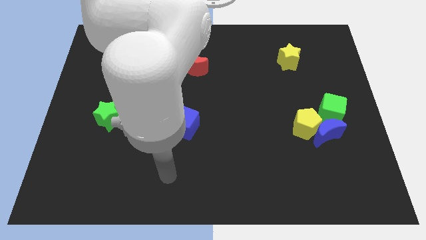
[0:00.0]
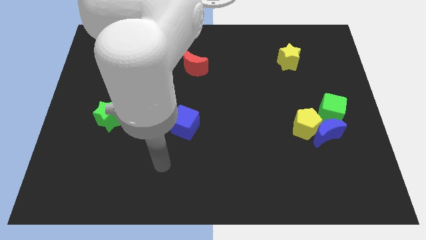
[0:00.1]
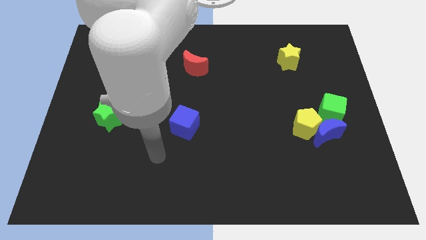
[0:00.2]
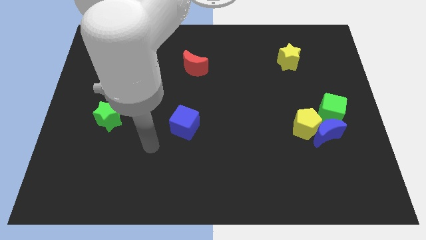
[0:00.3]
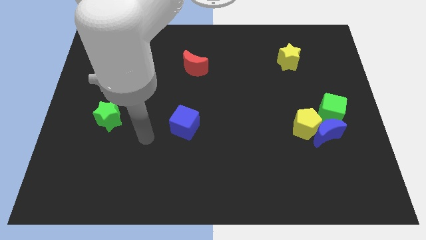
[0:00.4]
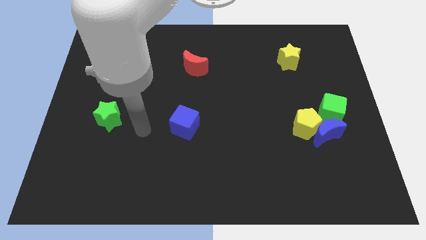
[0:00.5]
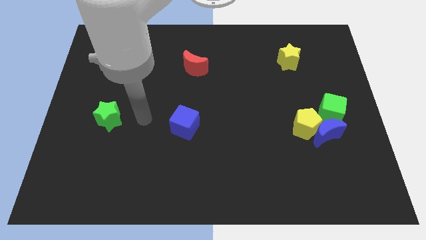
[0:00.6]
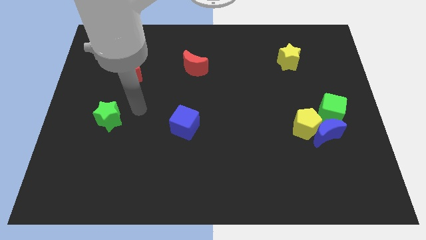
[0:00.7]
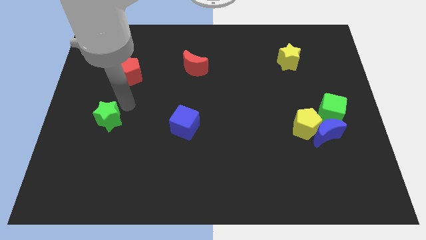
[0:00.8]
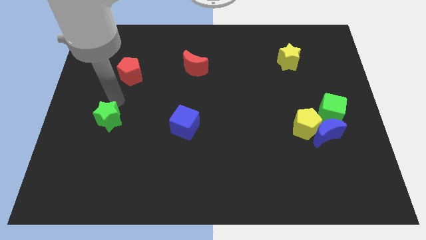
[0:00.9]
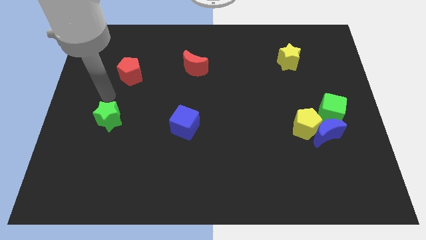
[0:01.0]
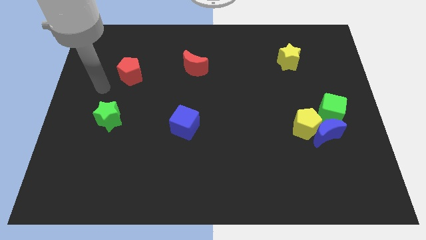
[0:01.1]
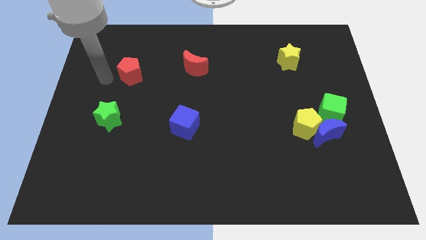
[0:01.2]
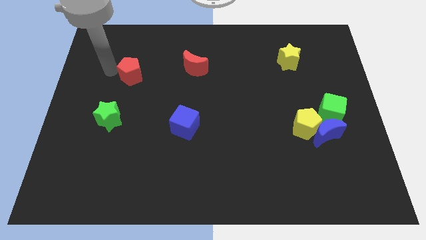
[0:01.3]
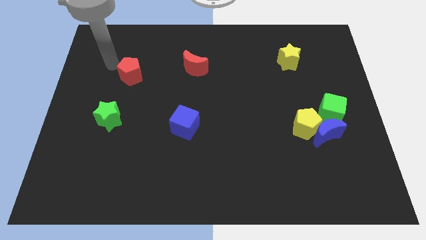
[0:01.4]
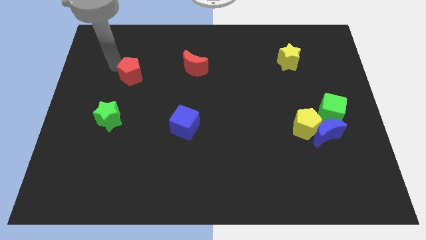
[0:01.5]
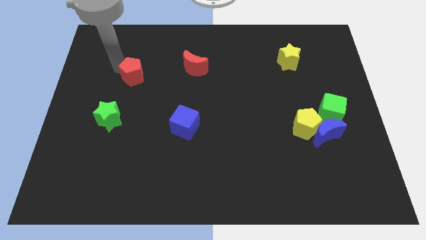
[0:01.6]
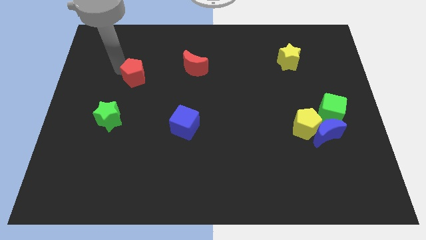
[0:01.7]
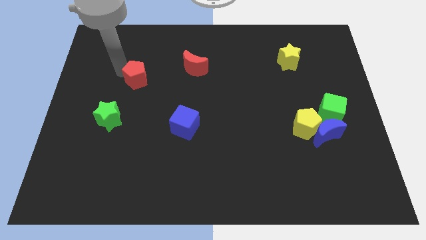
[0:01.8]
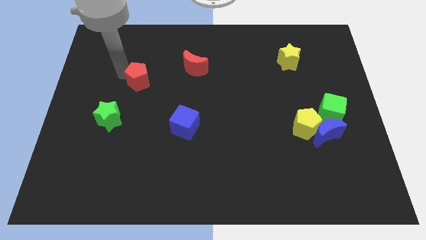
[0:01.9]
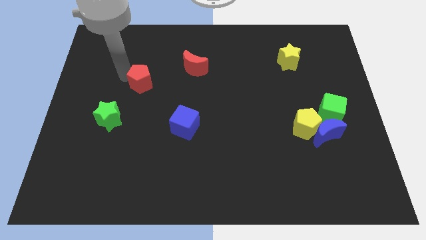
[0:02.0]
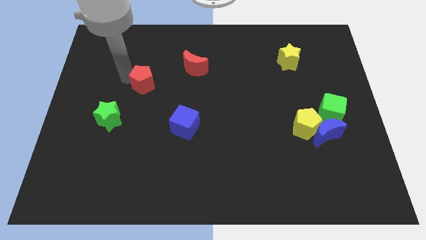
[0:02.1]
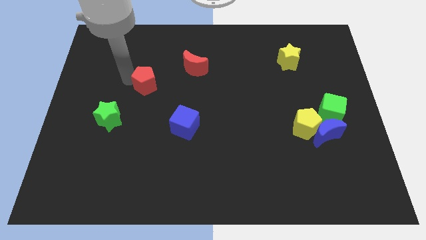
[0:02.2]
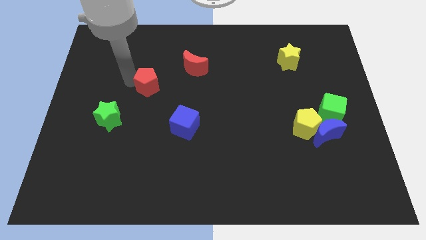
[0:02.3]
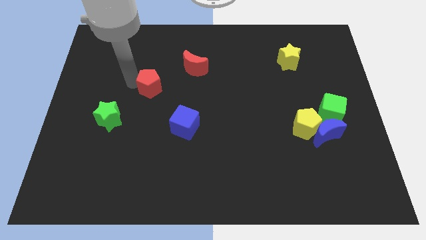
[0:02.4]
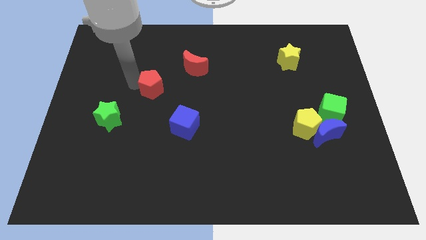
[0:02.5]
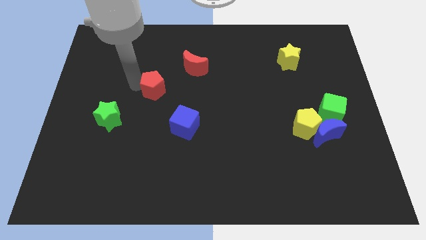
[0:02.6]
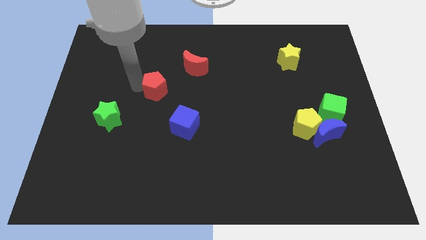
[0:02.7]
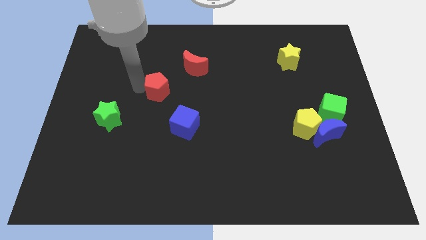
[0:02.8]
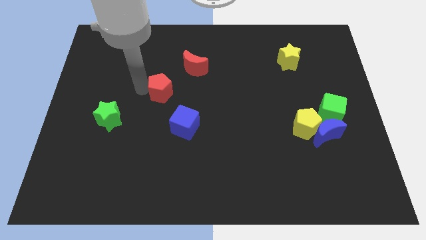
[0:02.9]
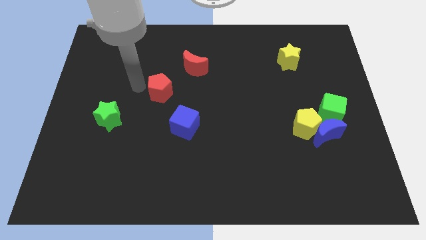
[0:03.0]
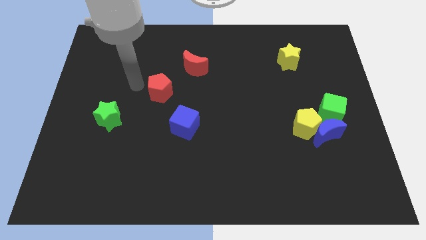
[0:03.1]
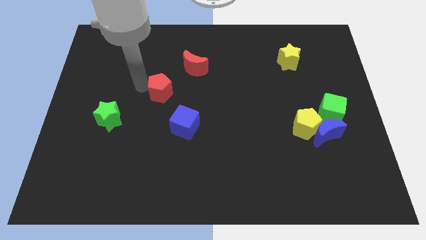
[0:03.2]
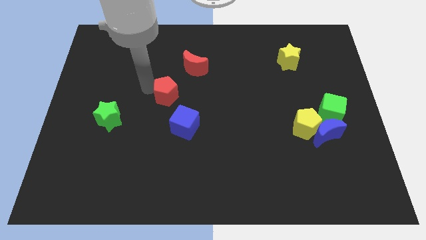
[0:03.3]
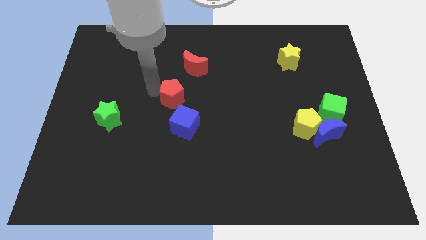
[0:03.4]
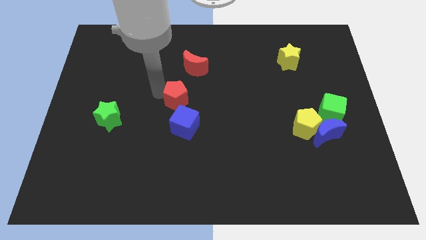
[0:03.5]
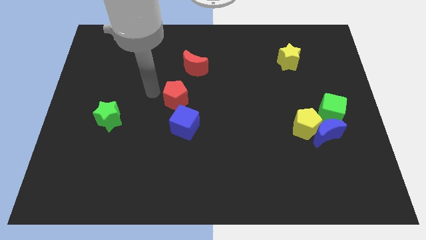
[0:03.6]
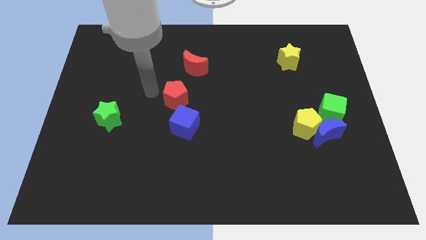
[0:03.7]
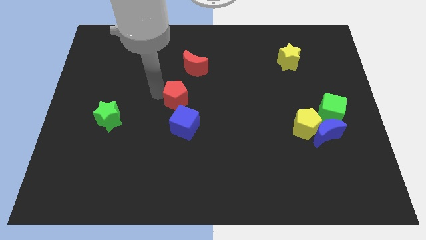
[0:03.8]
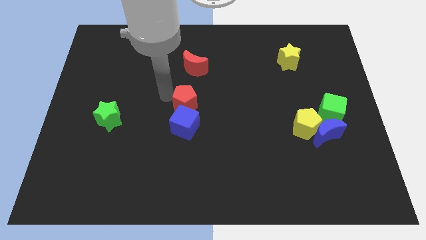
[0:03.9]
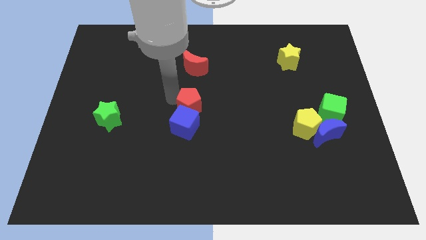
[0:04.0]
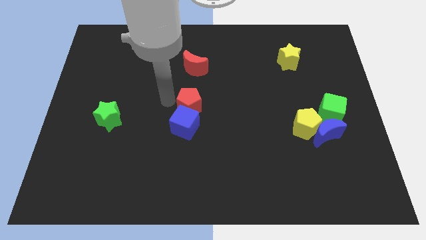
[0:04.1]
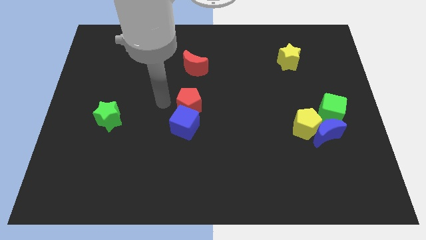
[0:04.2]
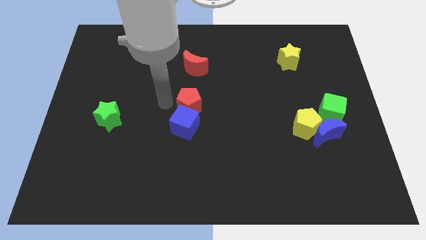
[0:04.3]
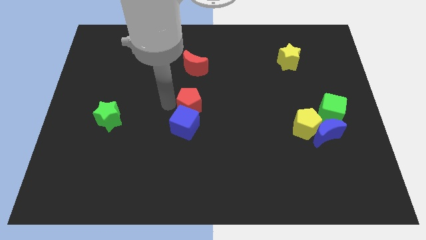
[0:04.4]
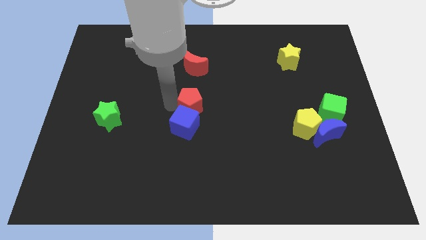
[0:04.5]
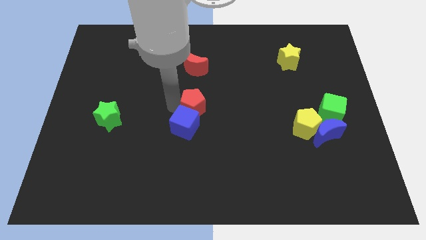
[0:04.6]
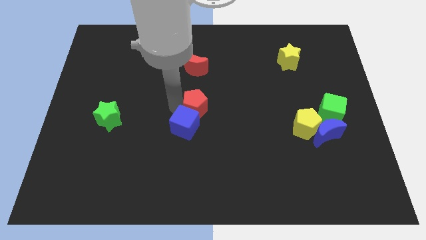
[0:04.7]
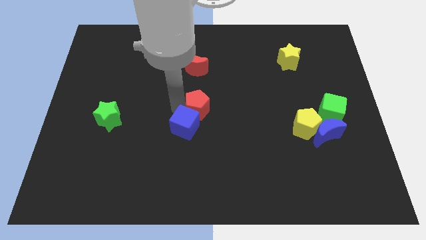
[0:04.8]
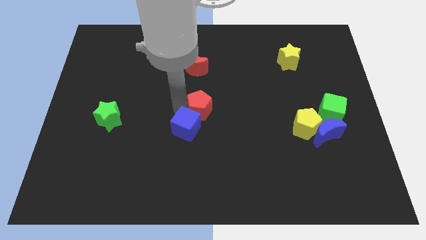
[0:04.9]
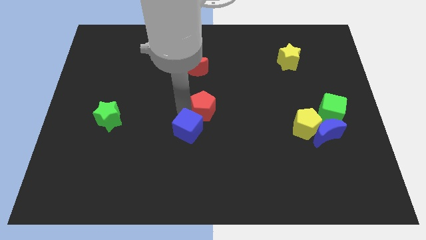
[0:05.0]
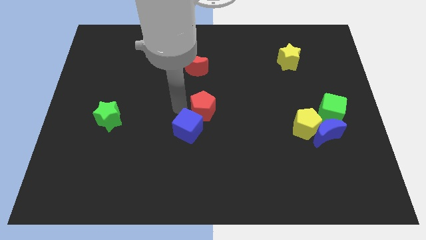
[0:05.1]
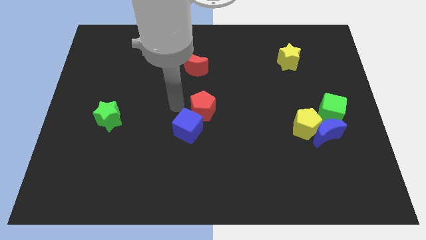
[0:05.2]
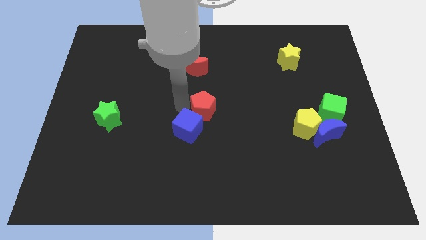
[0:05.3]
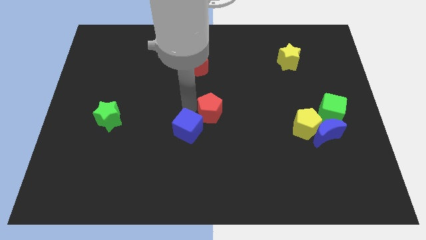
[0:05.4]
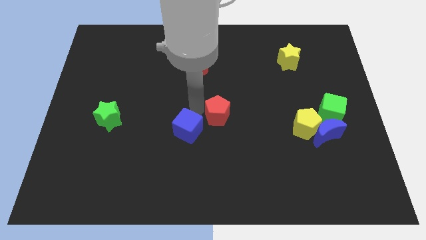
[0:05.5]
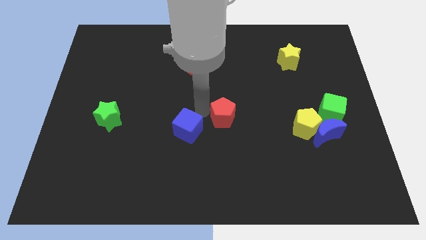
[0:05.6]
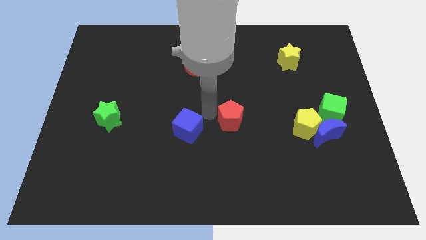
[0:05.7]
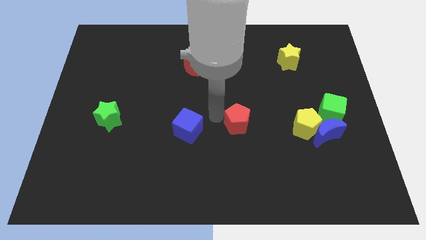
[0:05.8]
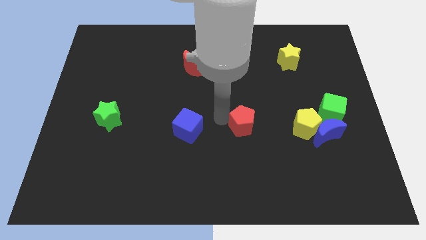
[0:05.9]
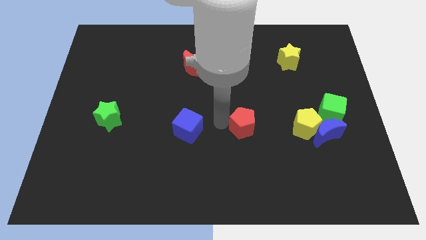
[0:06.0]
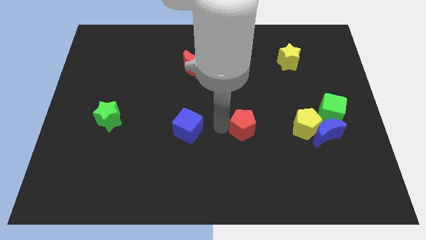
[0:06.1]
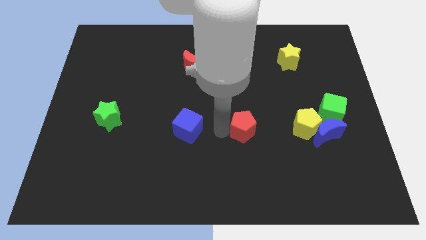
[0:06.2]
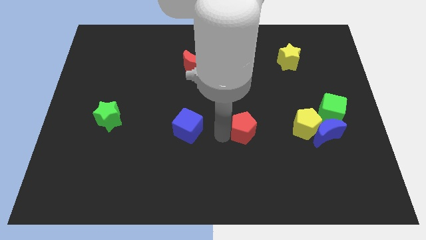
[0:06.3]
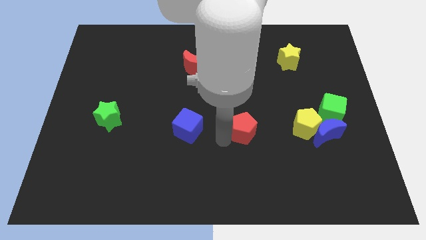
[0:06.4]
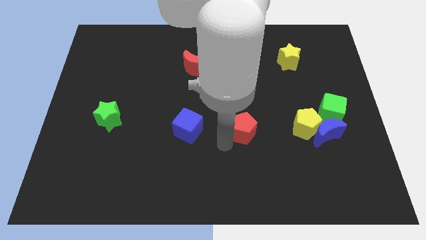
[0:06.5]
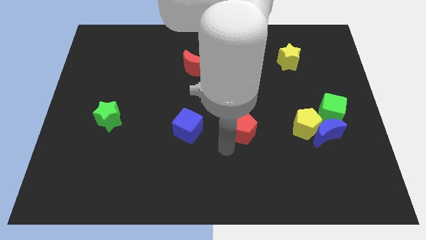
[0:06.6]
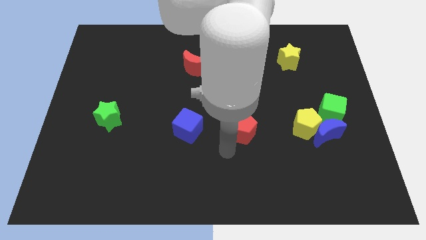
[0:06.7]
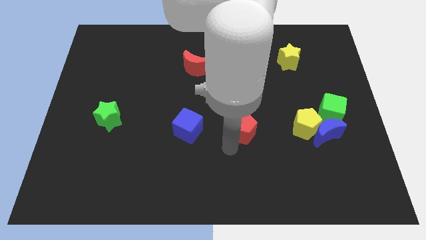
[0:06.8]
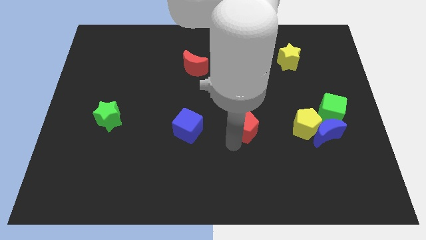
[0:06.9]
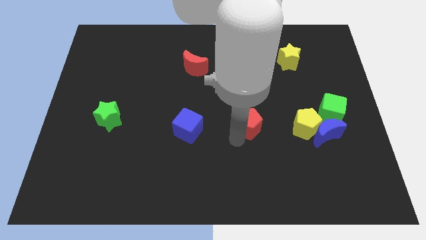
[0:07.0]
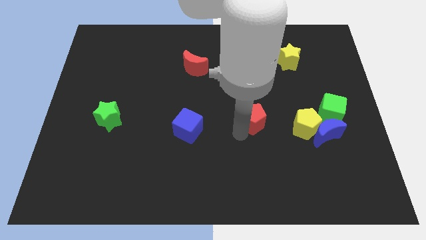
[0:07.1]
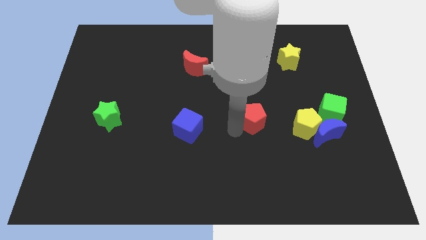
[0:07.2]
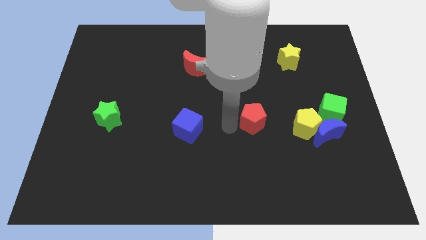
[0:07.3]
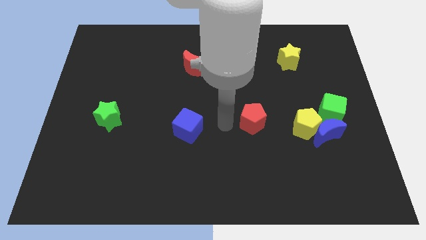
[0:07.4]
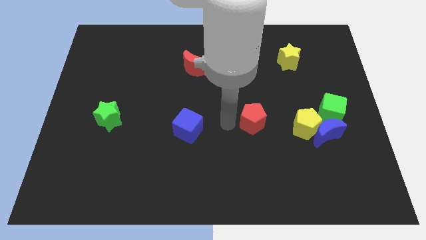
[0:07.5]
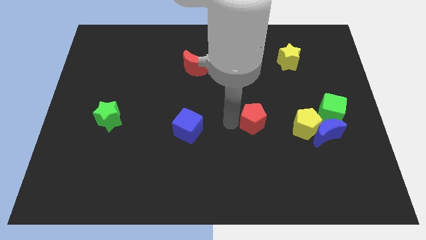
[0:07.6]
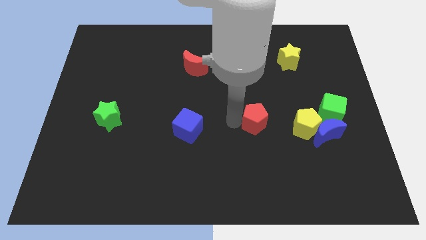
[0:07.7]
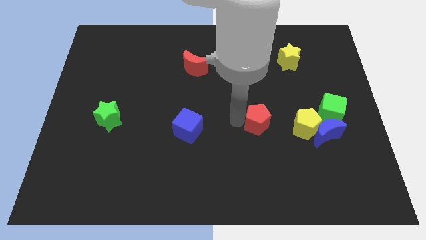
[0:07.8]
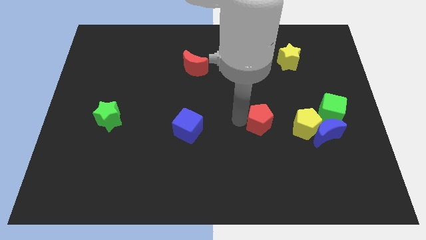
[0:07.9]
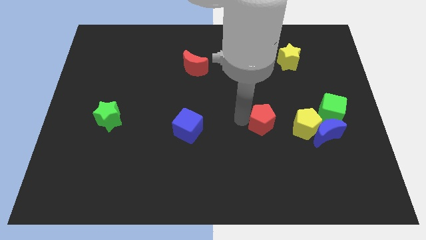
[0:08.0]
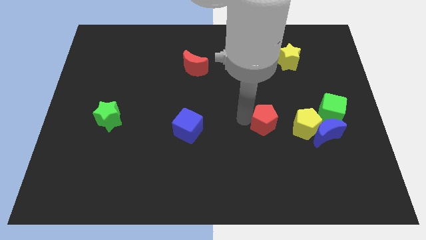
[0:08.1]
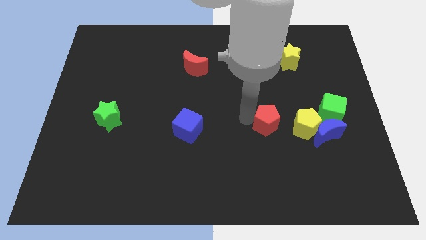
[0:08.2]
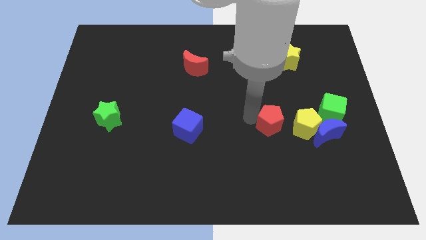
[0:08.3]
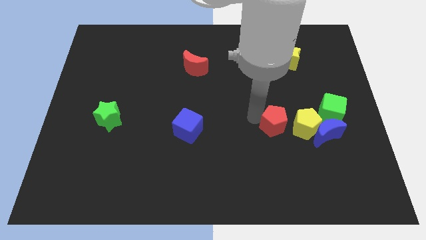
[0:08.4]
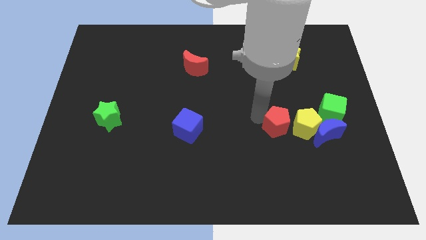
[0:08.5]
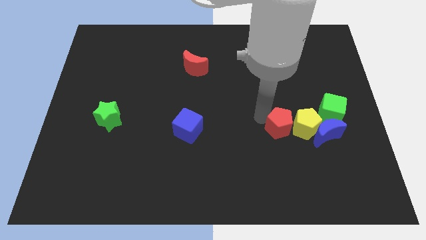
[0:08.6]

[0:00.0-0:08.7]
push the red pentagon towards the yellow pentagon
